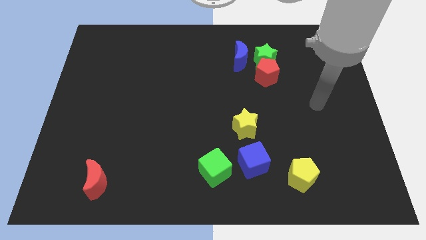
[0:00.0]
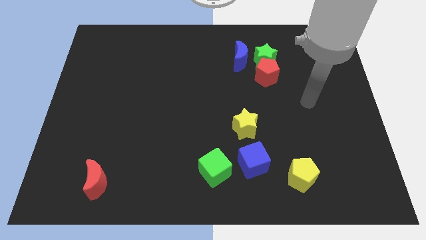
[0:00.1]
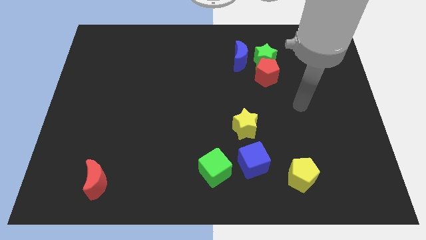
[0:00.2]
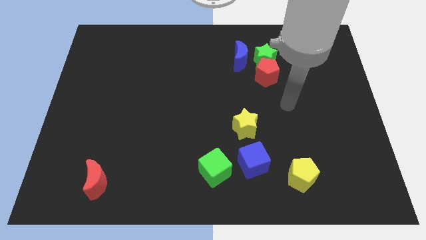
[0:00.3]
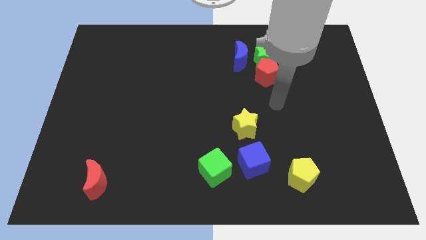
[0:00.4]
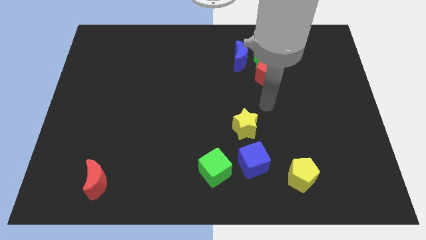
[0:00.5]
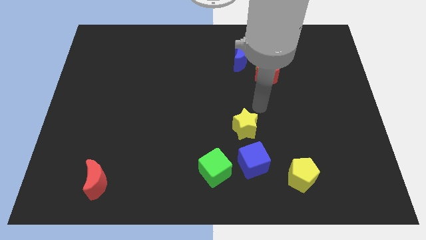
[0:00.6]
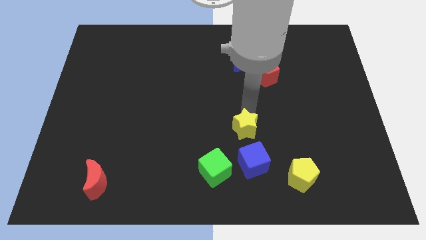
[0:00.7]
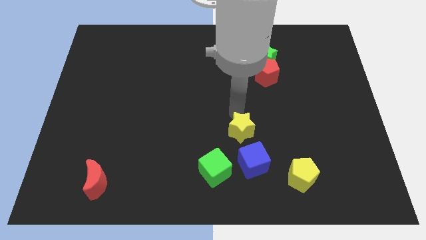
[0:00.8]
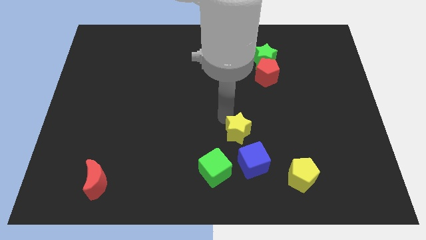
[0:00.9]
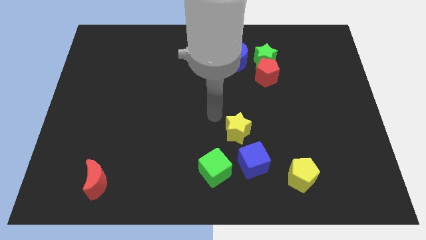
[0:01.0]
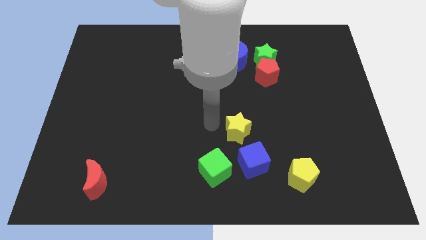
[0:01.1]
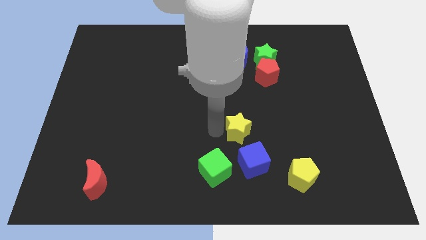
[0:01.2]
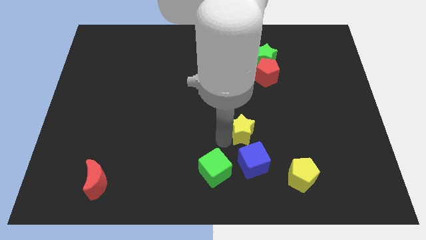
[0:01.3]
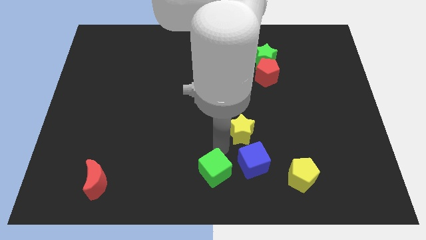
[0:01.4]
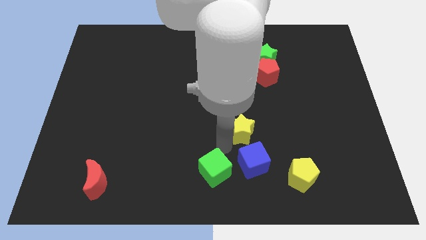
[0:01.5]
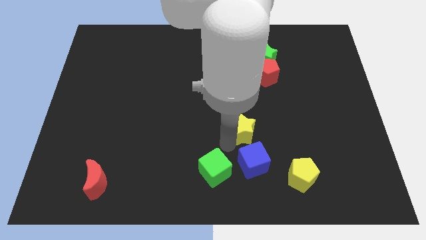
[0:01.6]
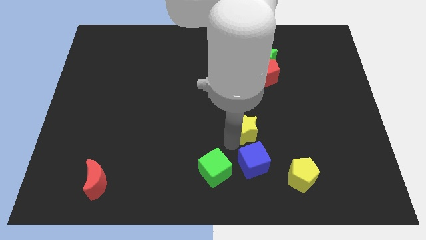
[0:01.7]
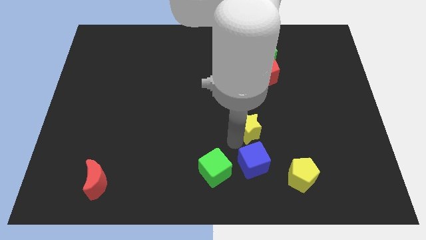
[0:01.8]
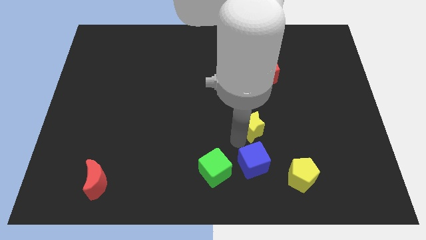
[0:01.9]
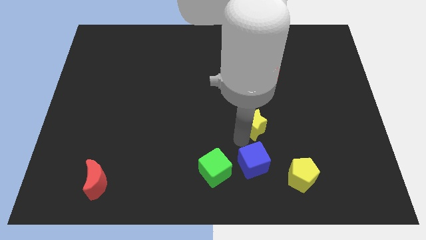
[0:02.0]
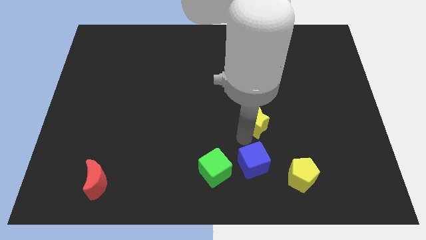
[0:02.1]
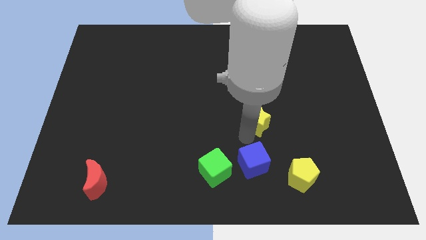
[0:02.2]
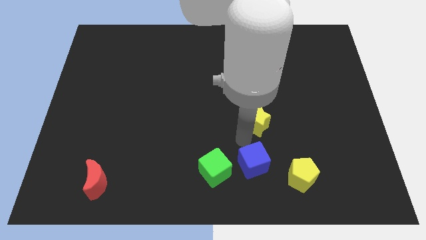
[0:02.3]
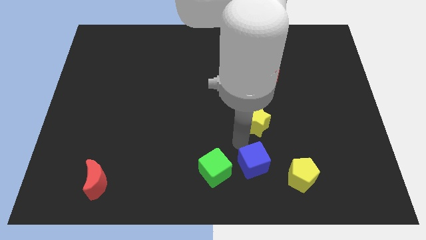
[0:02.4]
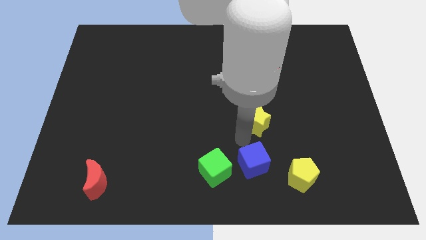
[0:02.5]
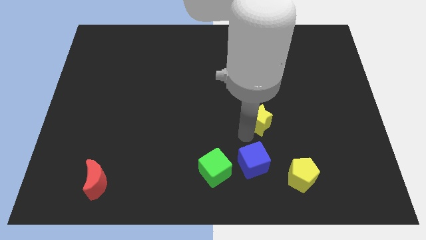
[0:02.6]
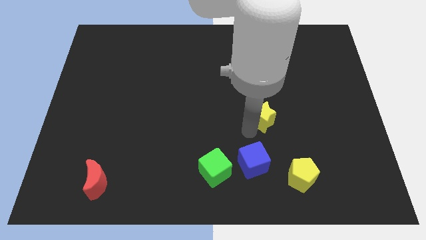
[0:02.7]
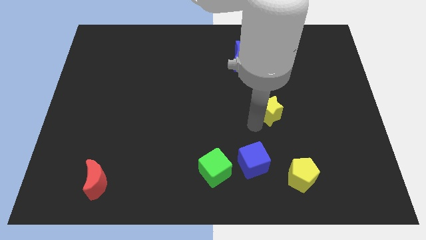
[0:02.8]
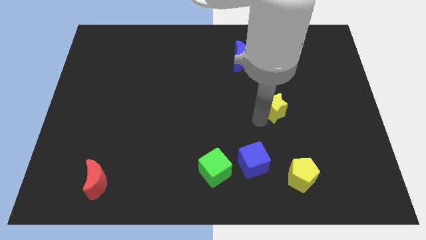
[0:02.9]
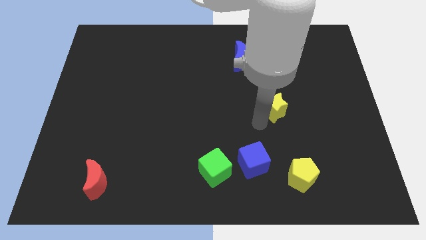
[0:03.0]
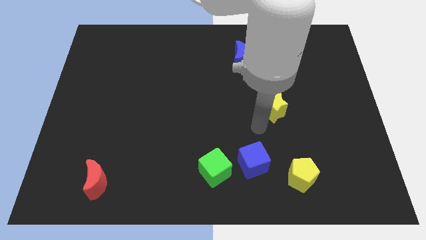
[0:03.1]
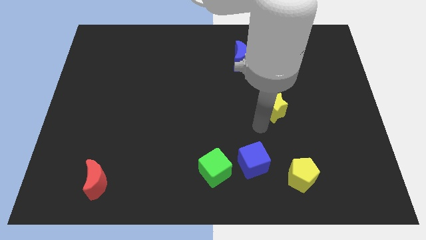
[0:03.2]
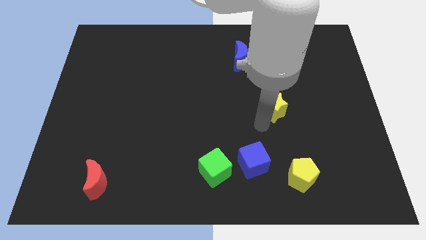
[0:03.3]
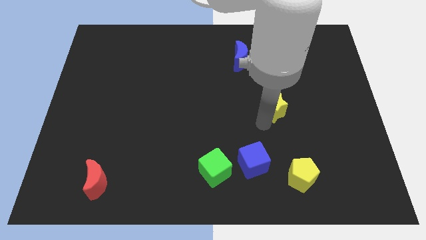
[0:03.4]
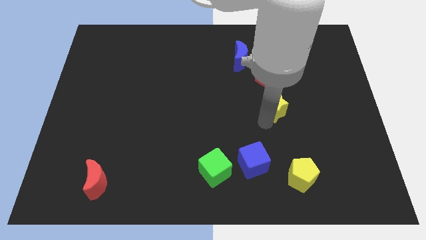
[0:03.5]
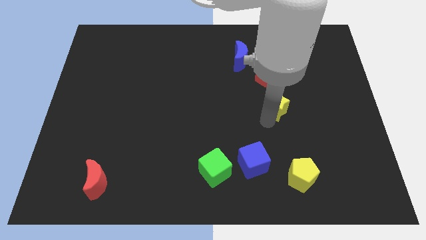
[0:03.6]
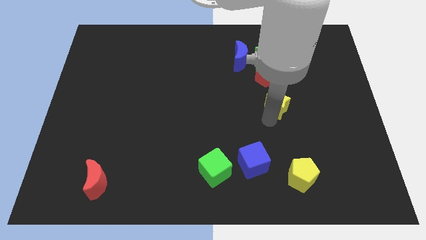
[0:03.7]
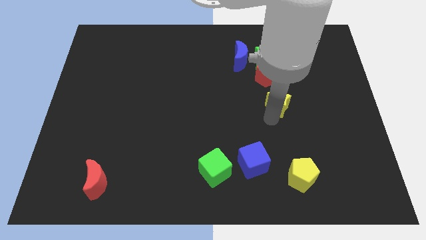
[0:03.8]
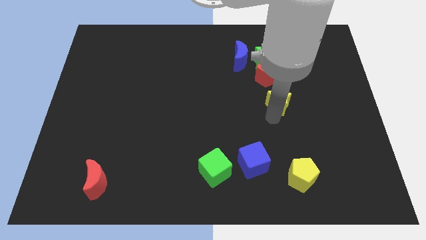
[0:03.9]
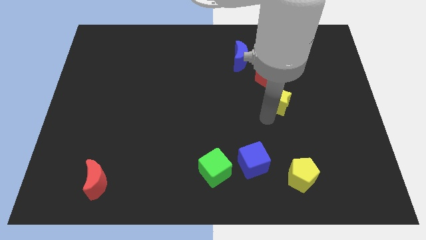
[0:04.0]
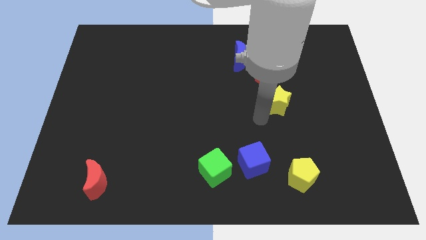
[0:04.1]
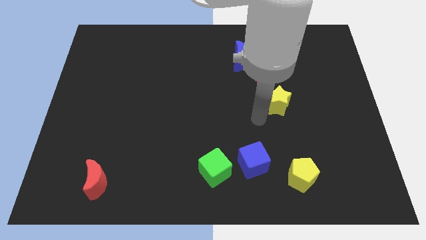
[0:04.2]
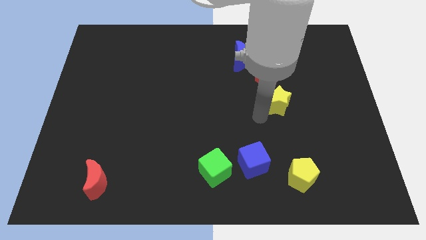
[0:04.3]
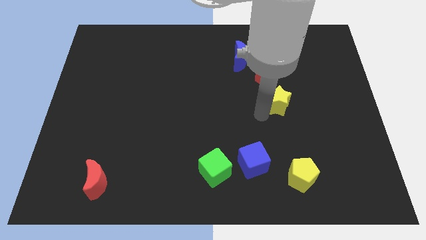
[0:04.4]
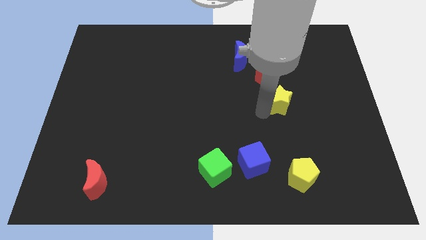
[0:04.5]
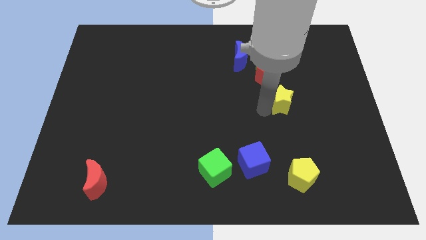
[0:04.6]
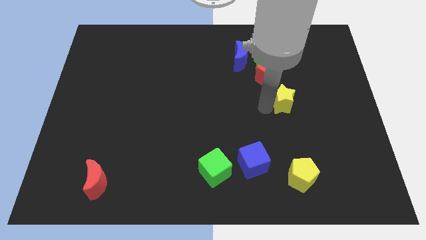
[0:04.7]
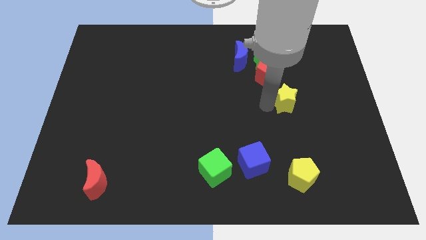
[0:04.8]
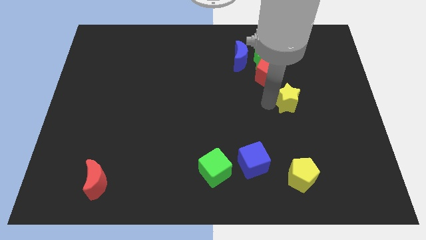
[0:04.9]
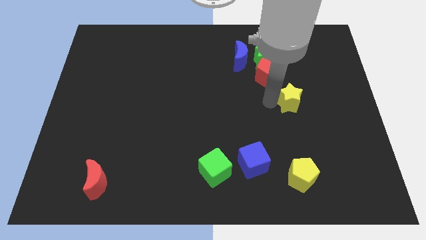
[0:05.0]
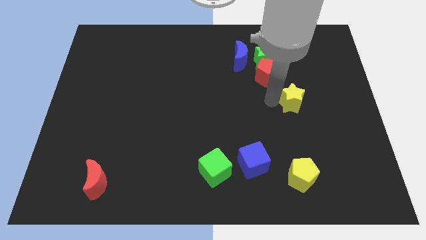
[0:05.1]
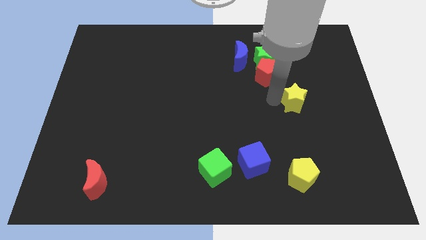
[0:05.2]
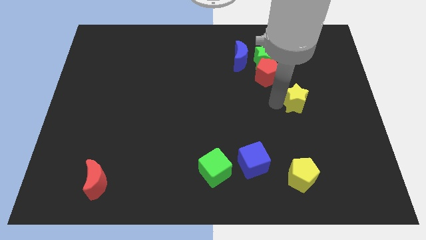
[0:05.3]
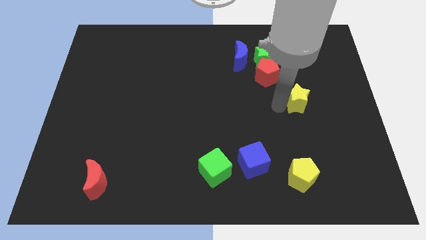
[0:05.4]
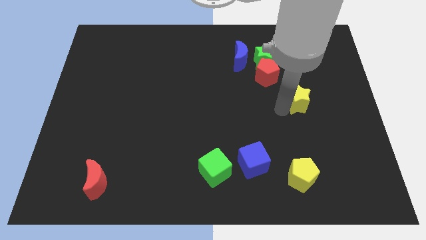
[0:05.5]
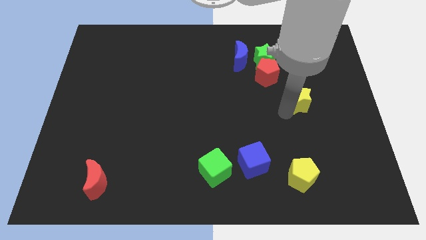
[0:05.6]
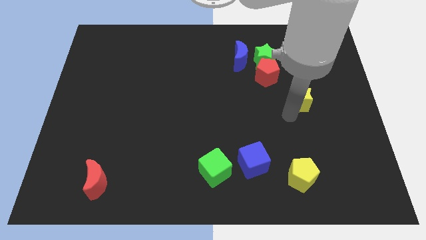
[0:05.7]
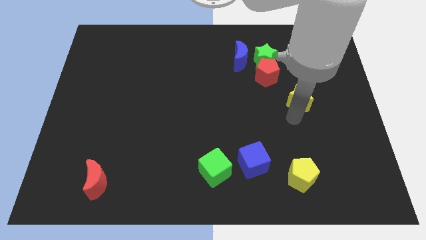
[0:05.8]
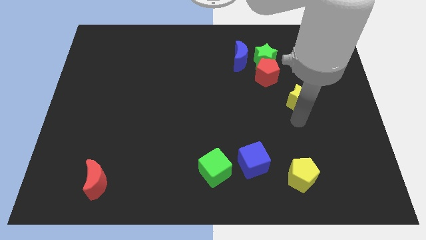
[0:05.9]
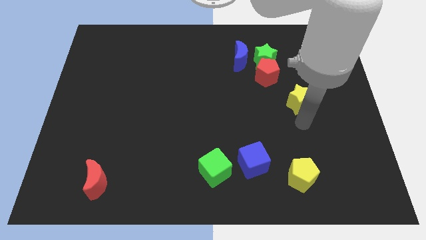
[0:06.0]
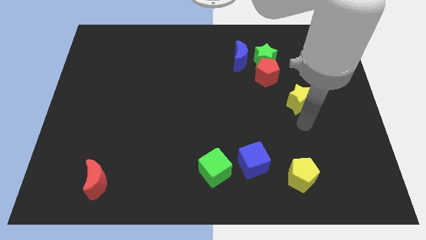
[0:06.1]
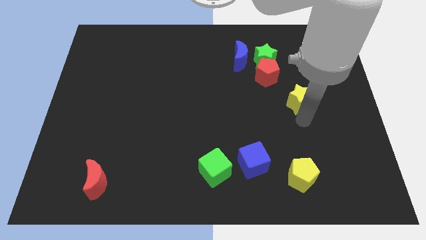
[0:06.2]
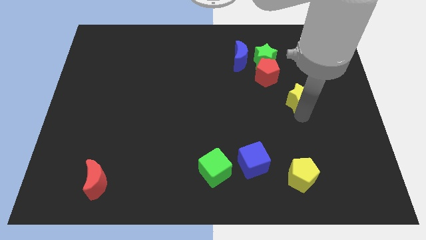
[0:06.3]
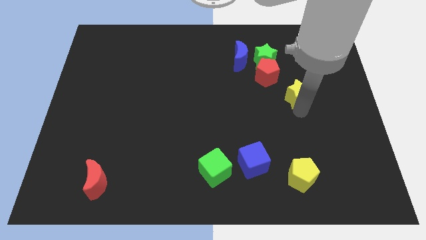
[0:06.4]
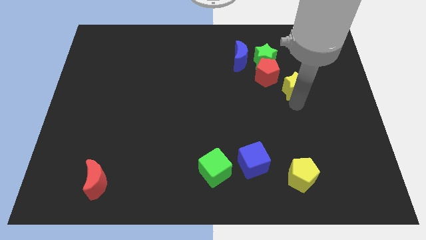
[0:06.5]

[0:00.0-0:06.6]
move the yellow star just right of the red pentagon

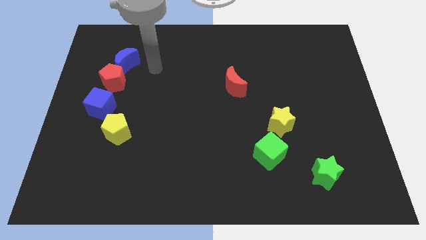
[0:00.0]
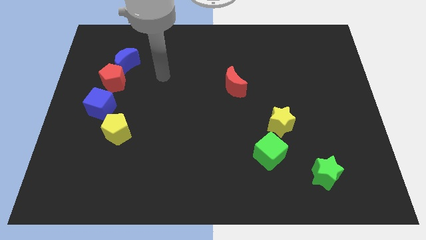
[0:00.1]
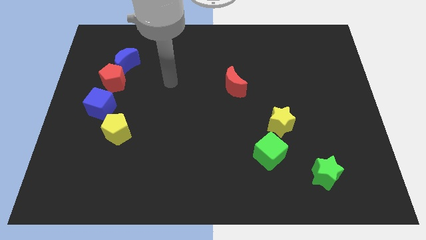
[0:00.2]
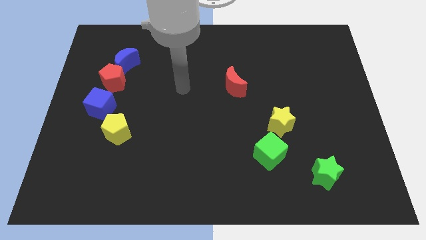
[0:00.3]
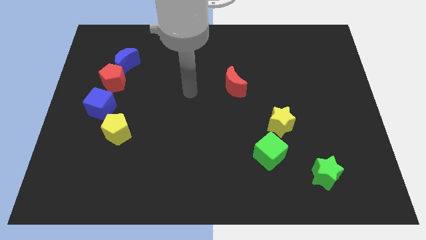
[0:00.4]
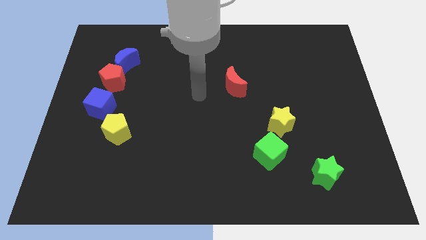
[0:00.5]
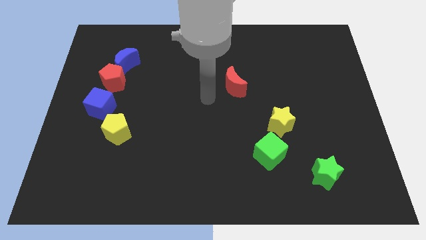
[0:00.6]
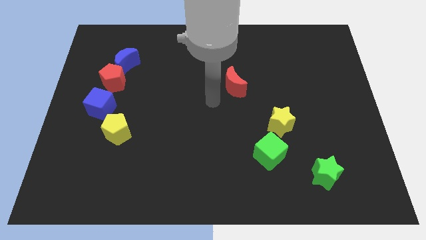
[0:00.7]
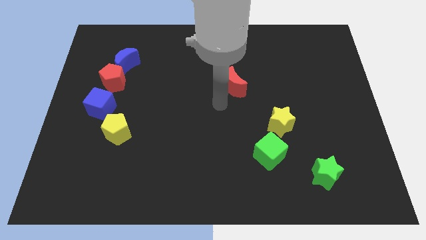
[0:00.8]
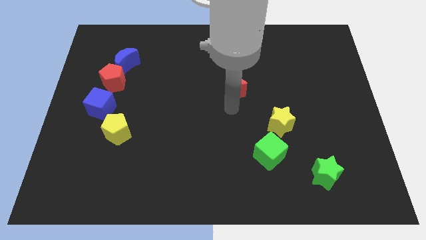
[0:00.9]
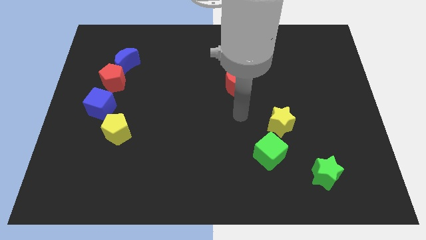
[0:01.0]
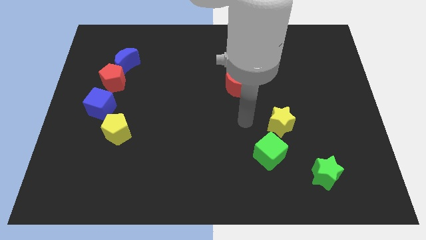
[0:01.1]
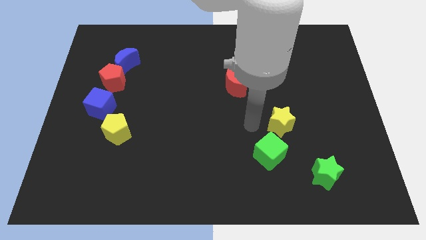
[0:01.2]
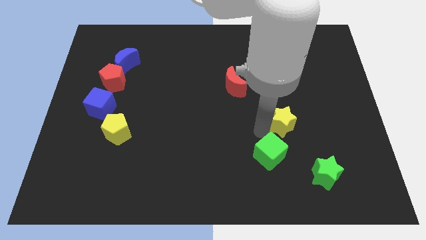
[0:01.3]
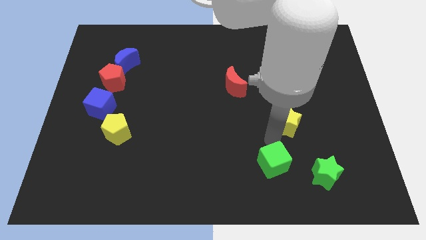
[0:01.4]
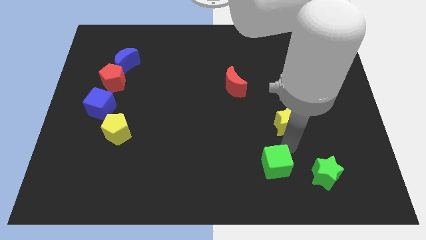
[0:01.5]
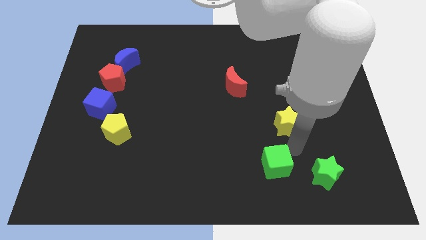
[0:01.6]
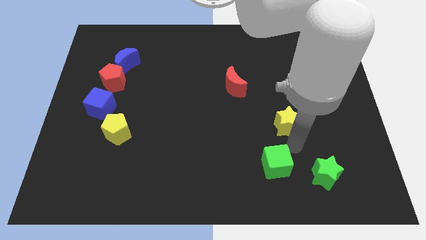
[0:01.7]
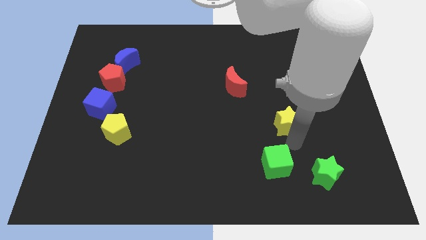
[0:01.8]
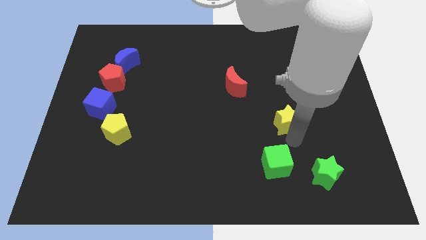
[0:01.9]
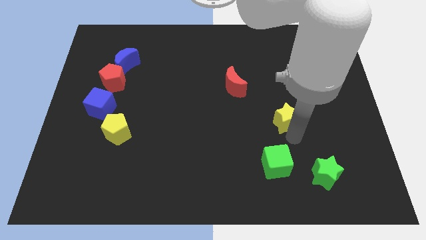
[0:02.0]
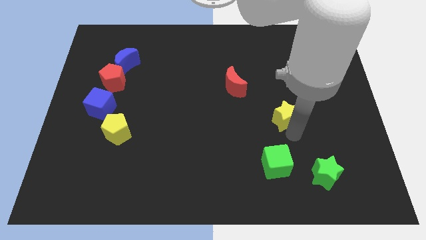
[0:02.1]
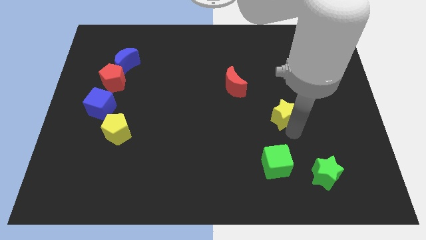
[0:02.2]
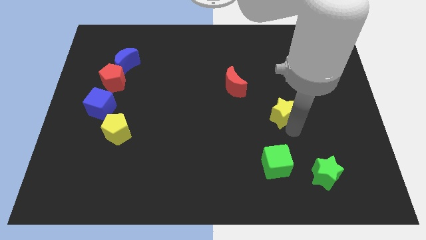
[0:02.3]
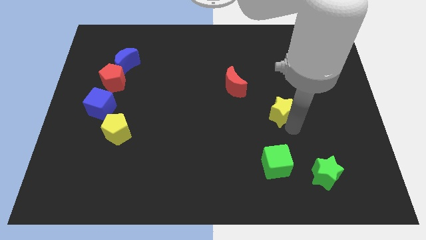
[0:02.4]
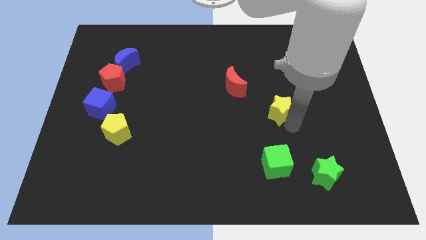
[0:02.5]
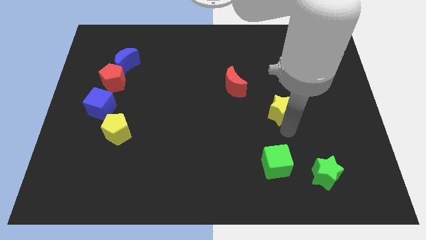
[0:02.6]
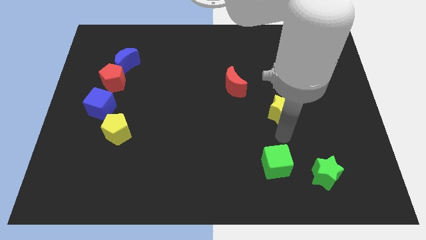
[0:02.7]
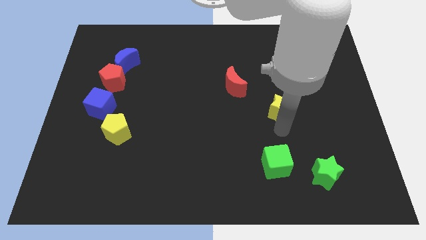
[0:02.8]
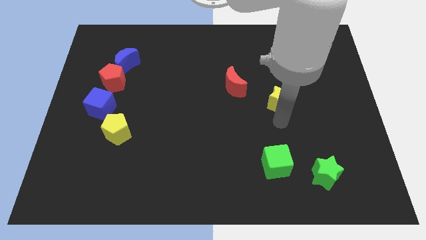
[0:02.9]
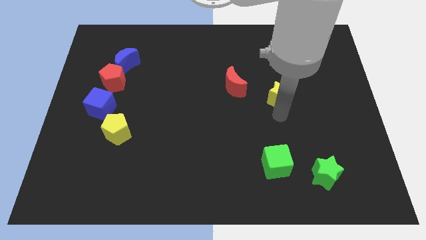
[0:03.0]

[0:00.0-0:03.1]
put the yellow star right of the red moon
